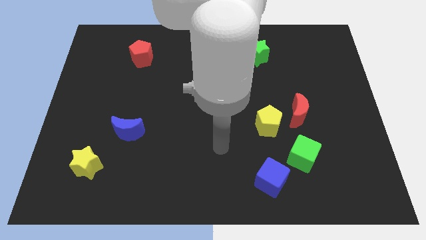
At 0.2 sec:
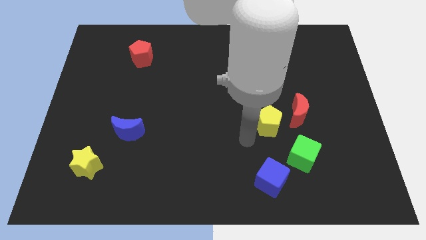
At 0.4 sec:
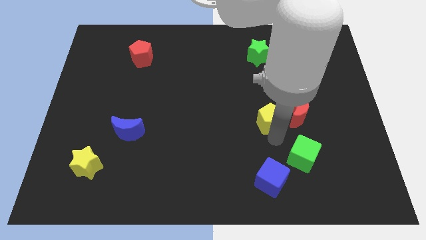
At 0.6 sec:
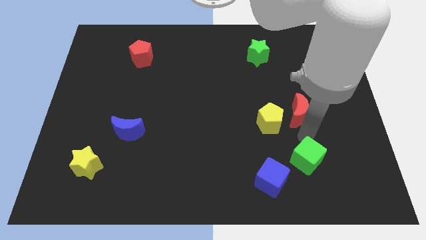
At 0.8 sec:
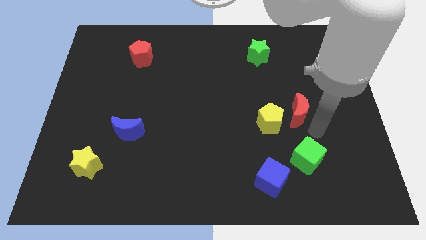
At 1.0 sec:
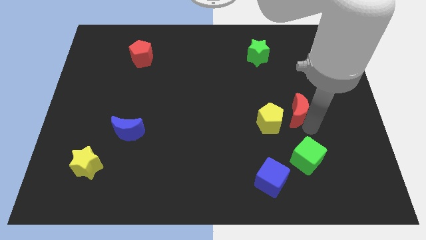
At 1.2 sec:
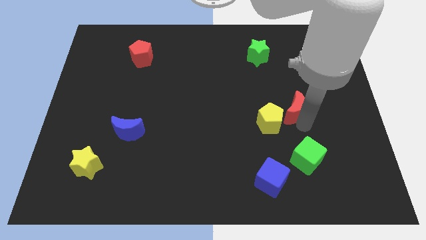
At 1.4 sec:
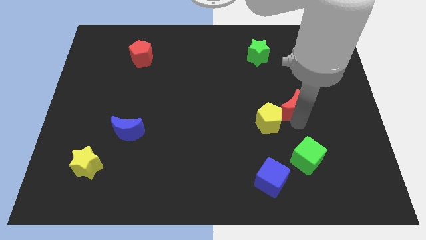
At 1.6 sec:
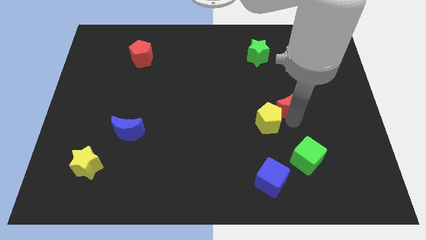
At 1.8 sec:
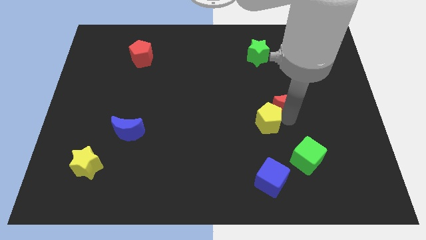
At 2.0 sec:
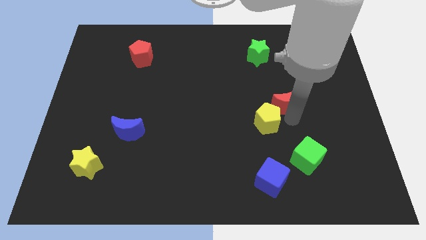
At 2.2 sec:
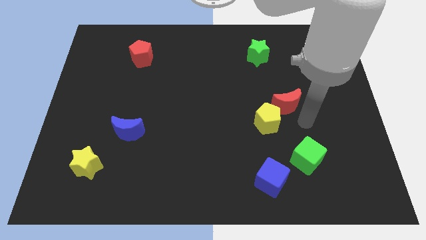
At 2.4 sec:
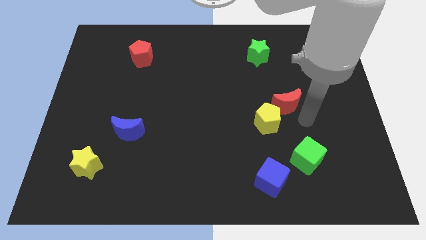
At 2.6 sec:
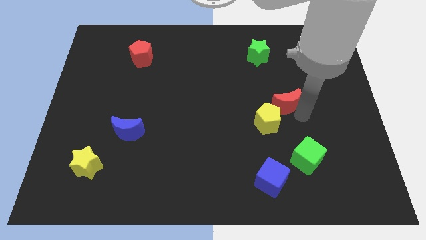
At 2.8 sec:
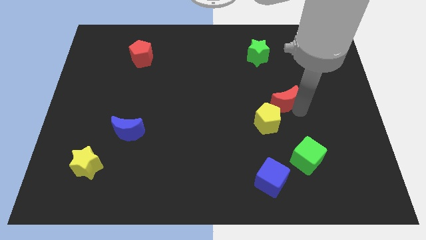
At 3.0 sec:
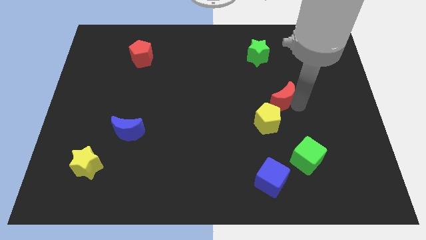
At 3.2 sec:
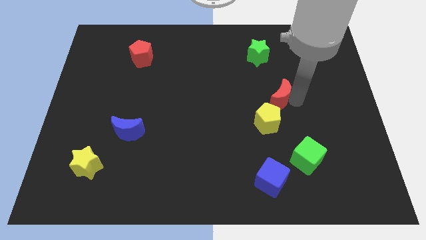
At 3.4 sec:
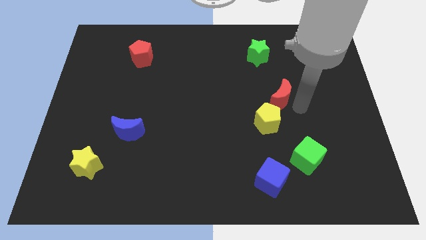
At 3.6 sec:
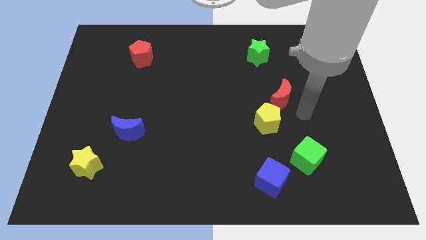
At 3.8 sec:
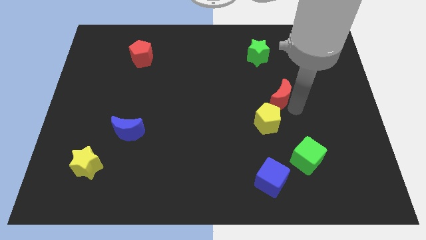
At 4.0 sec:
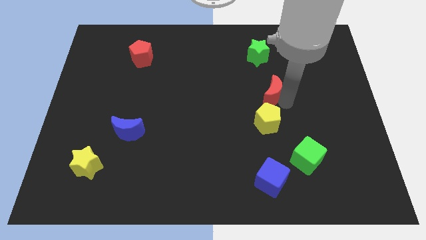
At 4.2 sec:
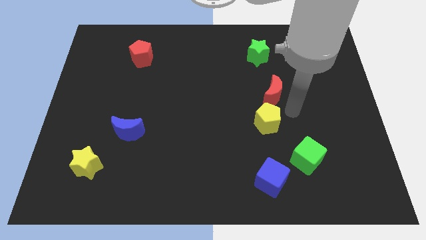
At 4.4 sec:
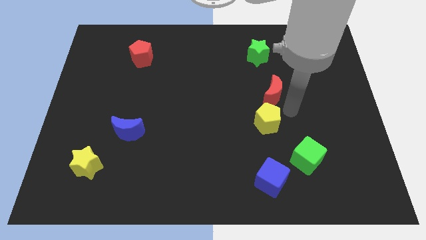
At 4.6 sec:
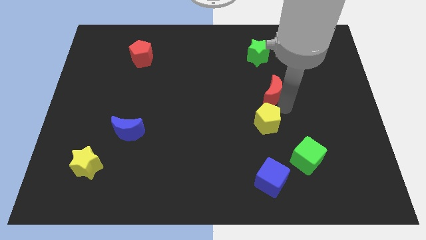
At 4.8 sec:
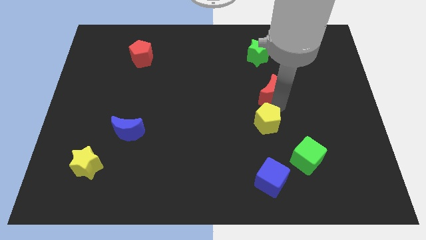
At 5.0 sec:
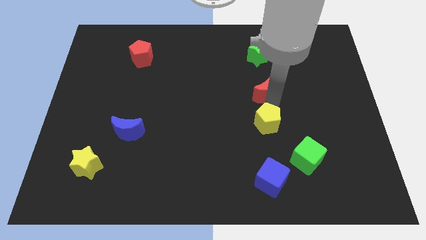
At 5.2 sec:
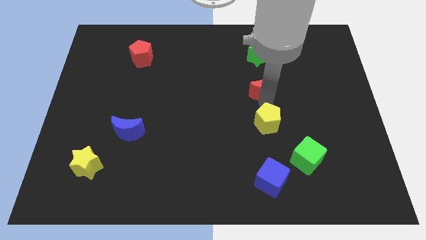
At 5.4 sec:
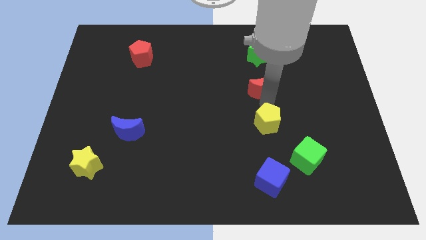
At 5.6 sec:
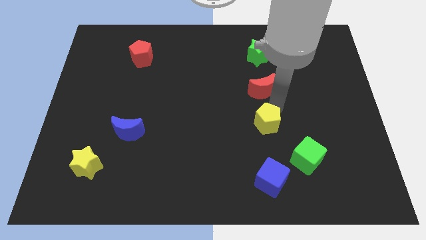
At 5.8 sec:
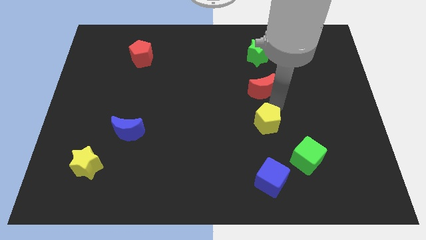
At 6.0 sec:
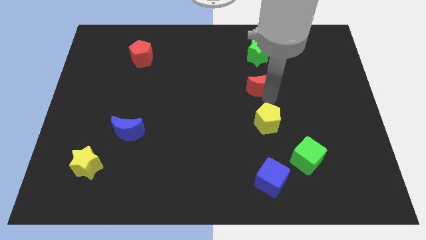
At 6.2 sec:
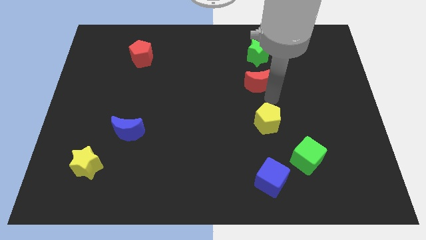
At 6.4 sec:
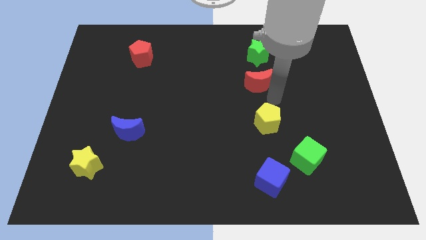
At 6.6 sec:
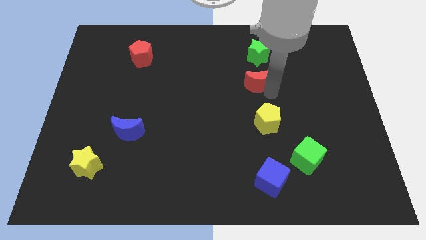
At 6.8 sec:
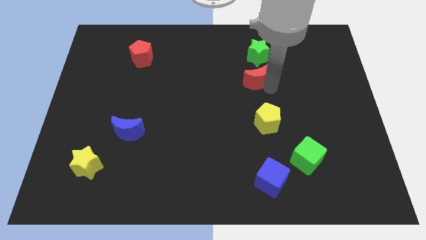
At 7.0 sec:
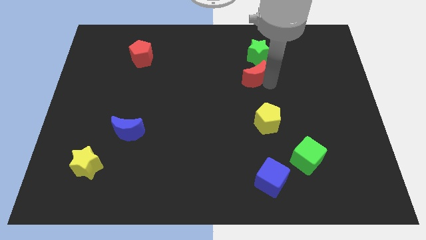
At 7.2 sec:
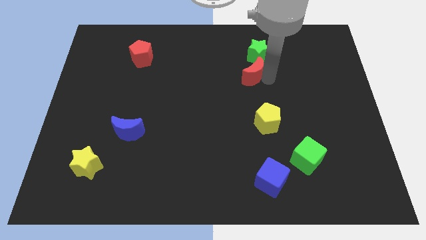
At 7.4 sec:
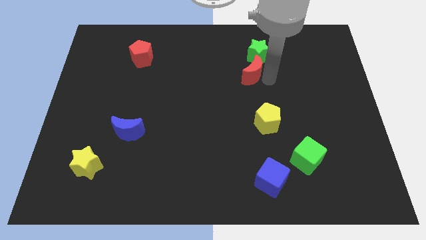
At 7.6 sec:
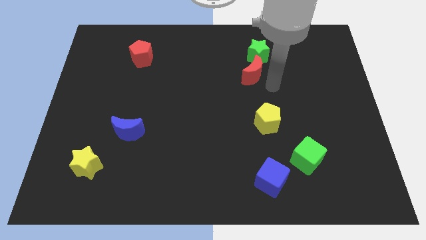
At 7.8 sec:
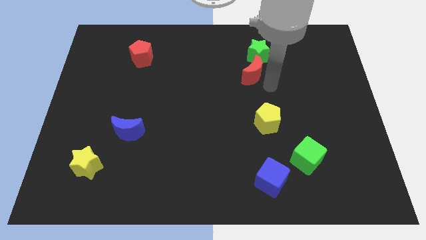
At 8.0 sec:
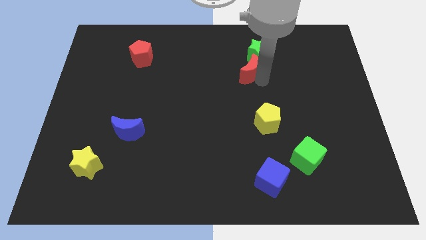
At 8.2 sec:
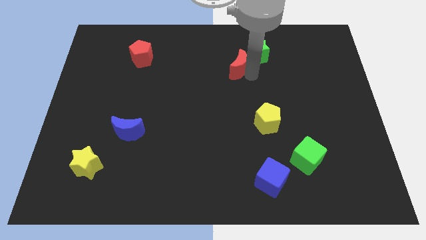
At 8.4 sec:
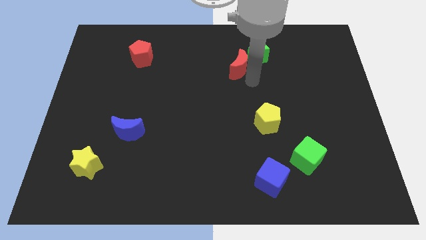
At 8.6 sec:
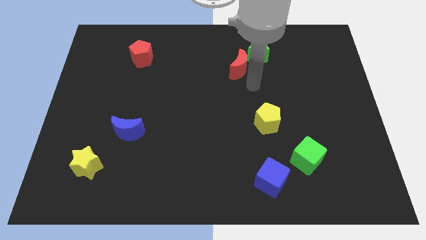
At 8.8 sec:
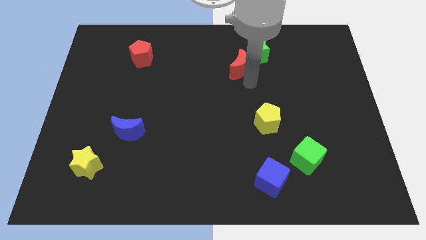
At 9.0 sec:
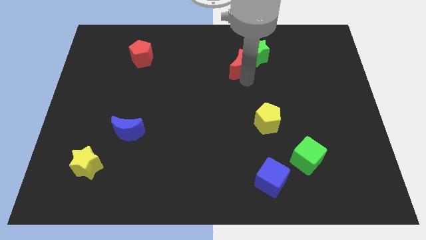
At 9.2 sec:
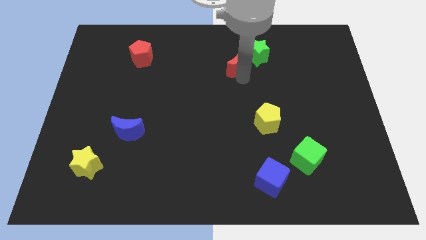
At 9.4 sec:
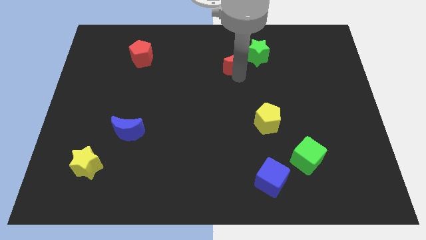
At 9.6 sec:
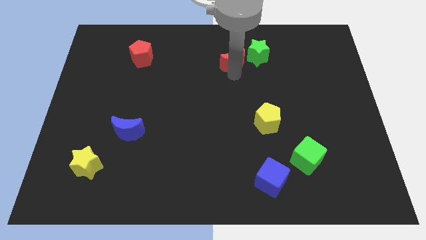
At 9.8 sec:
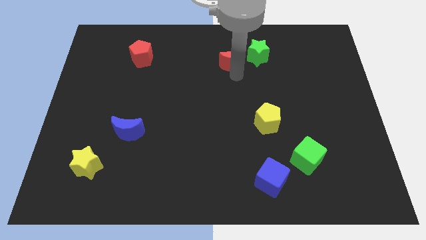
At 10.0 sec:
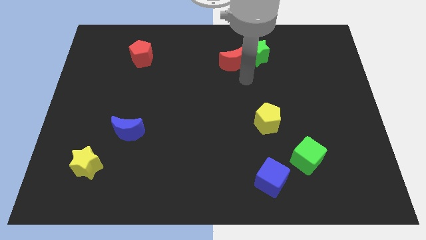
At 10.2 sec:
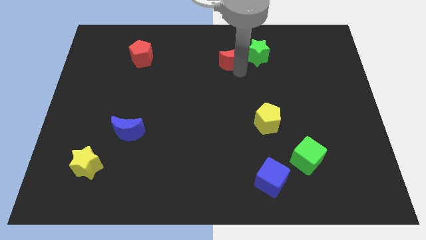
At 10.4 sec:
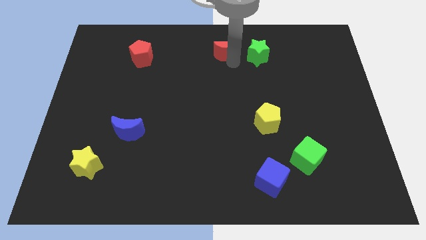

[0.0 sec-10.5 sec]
put the red moon to the top side

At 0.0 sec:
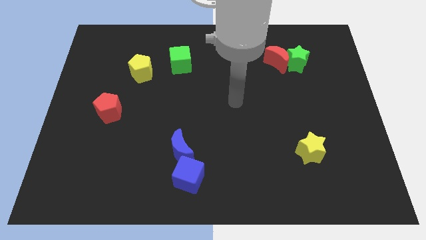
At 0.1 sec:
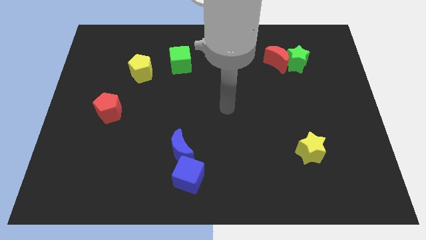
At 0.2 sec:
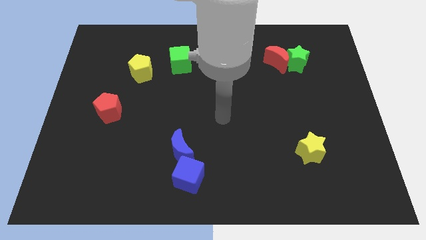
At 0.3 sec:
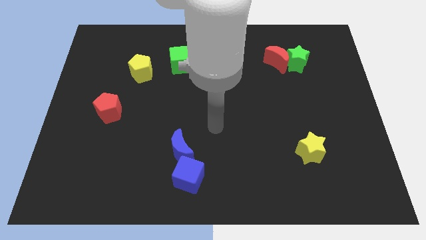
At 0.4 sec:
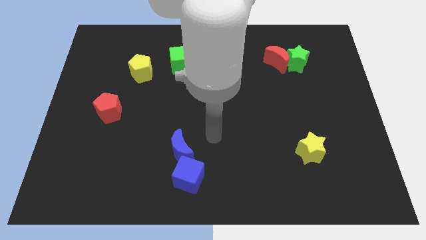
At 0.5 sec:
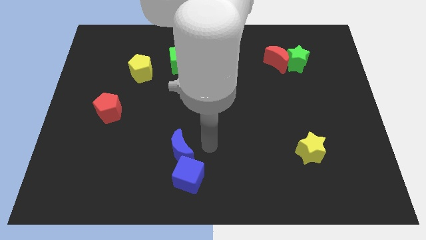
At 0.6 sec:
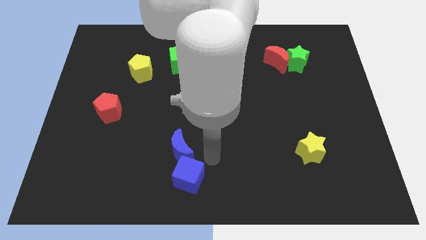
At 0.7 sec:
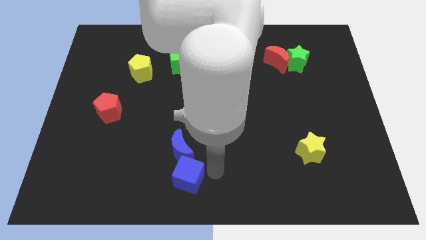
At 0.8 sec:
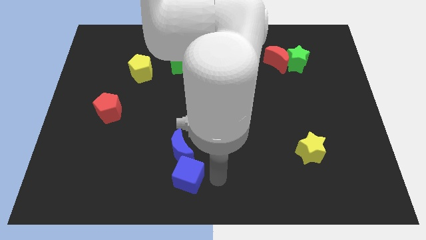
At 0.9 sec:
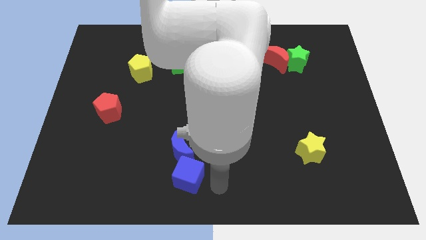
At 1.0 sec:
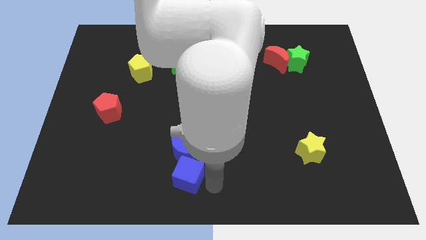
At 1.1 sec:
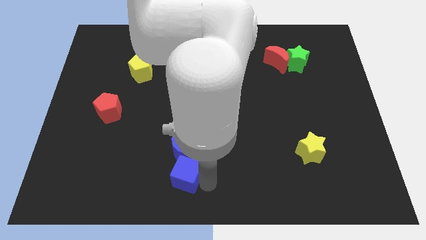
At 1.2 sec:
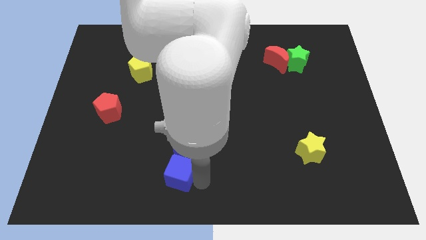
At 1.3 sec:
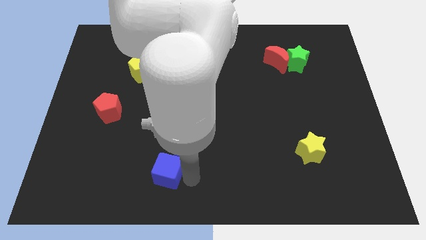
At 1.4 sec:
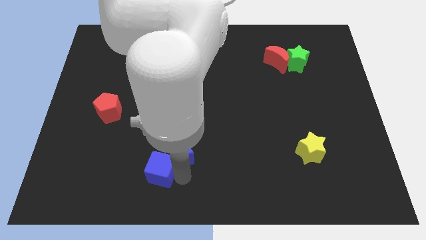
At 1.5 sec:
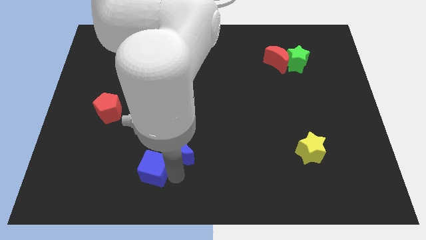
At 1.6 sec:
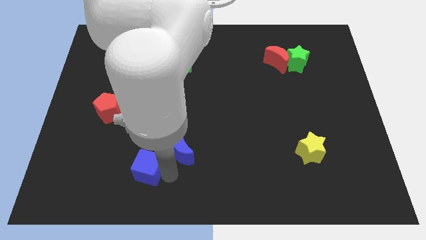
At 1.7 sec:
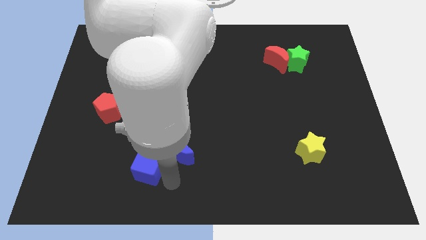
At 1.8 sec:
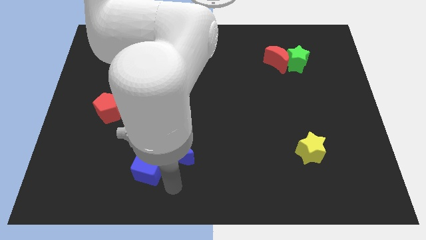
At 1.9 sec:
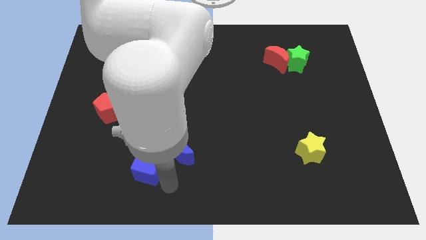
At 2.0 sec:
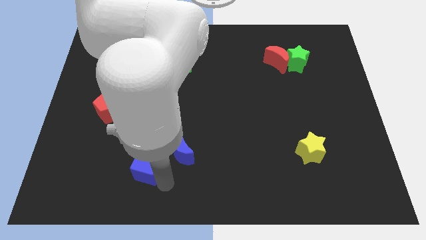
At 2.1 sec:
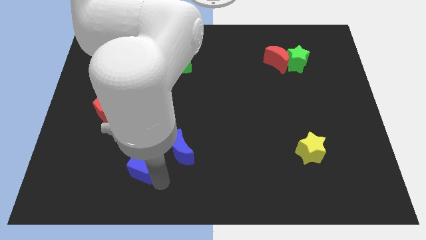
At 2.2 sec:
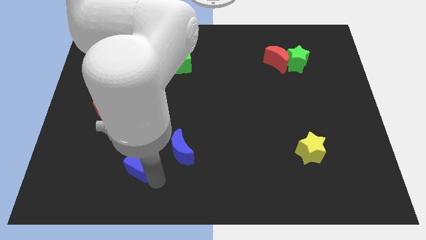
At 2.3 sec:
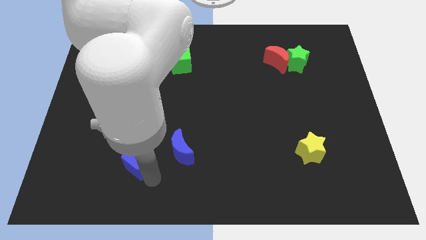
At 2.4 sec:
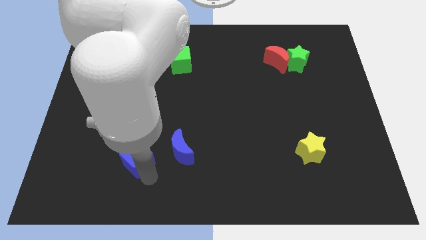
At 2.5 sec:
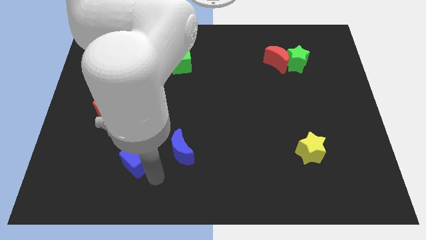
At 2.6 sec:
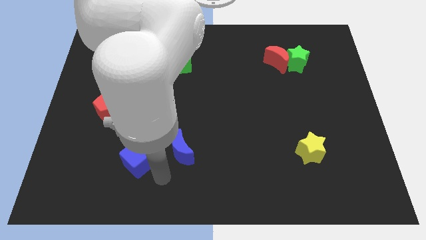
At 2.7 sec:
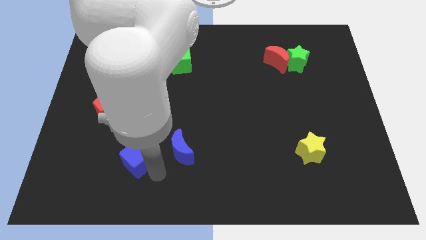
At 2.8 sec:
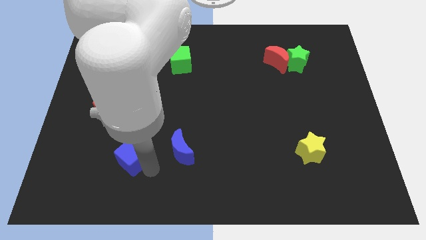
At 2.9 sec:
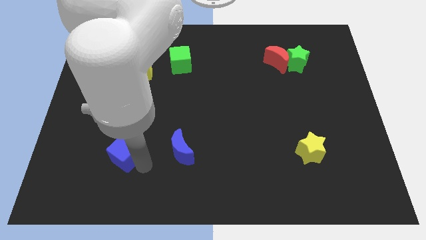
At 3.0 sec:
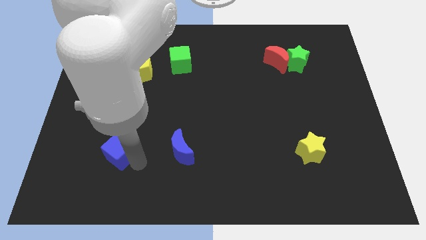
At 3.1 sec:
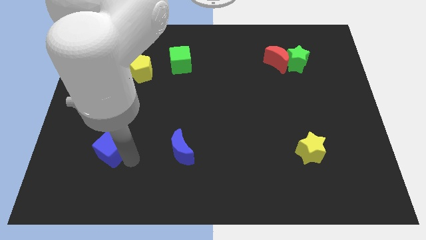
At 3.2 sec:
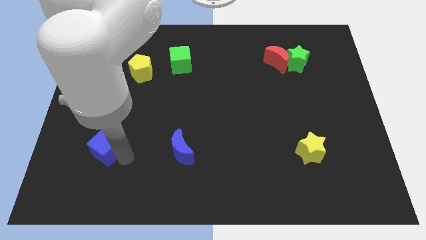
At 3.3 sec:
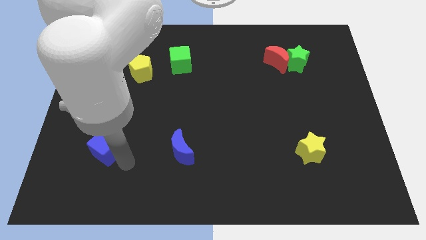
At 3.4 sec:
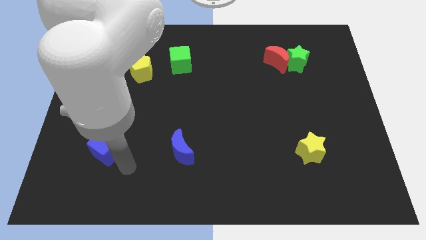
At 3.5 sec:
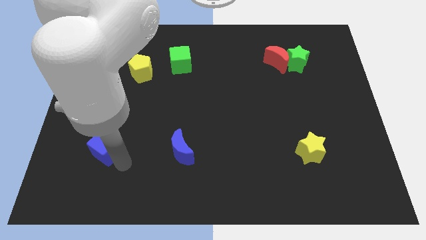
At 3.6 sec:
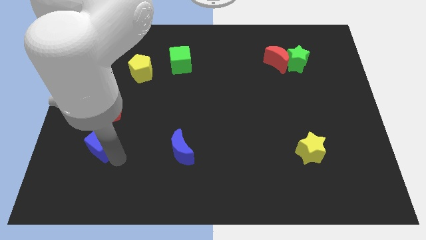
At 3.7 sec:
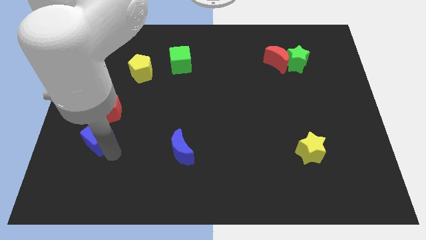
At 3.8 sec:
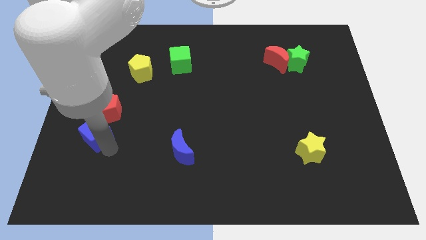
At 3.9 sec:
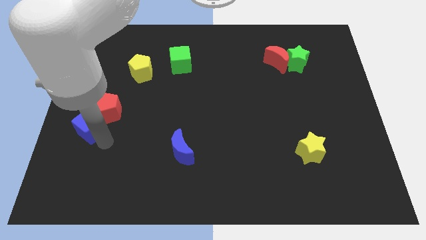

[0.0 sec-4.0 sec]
move the blue cube to the left side
